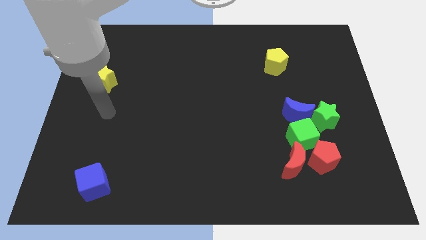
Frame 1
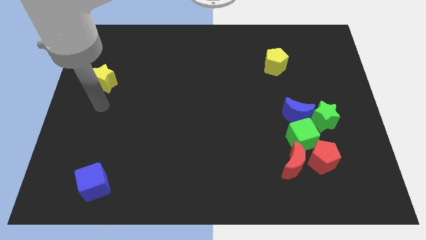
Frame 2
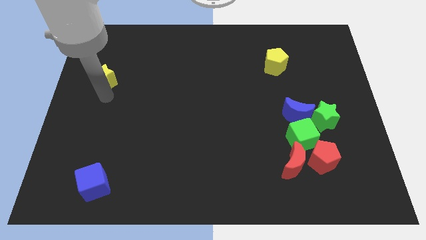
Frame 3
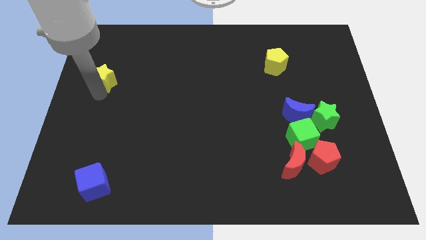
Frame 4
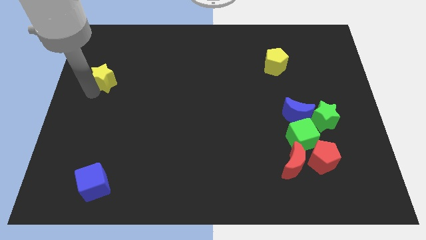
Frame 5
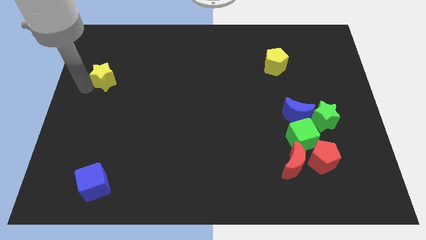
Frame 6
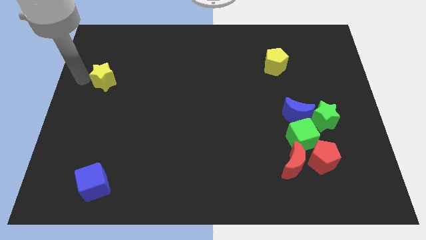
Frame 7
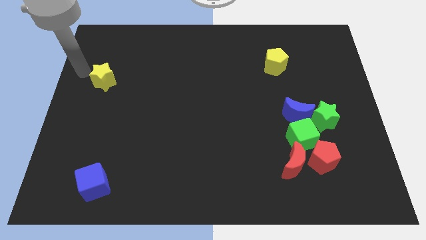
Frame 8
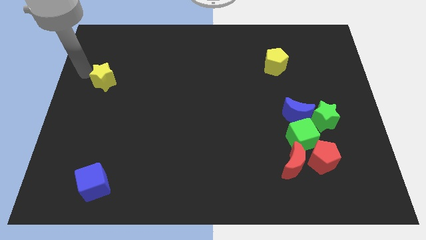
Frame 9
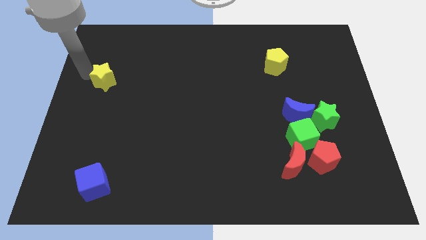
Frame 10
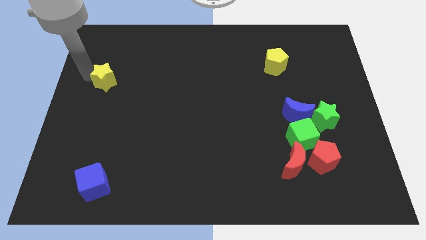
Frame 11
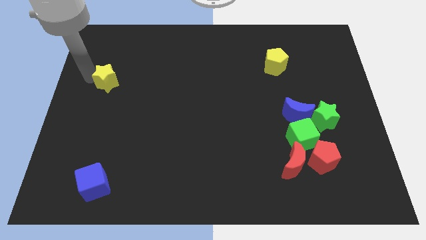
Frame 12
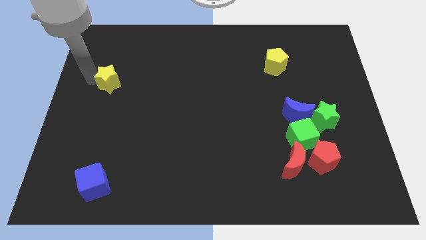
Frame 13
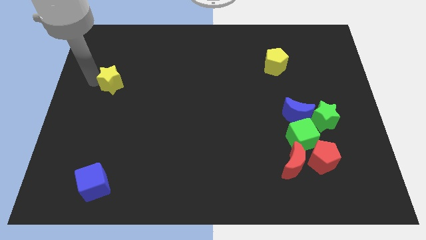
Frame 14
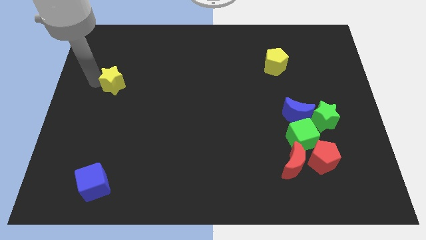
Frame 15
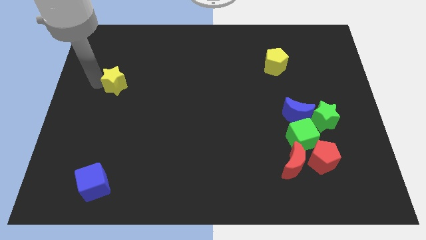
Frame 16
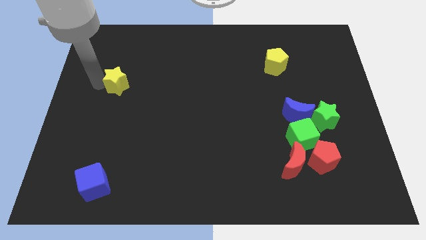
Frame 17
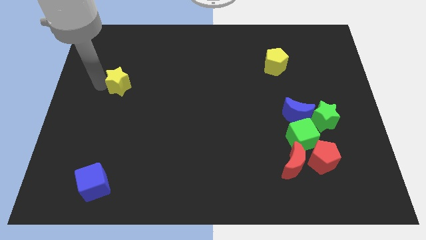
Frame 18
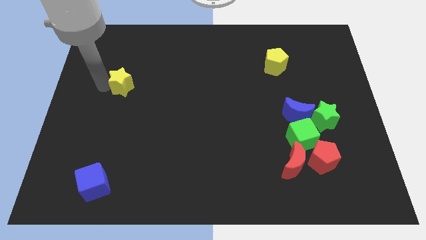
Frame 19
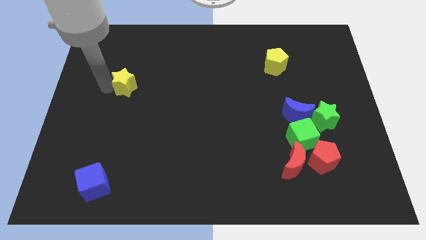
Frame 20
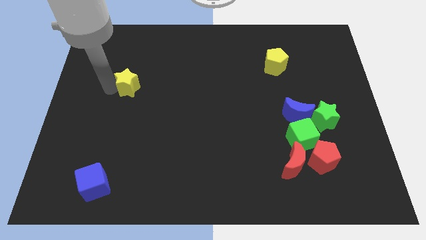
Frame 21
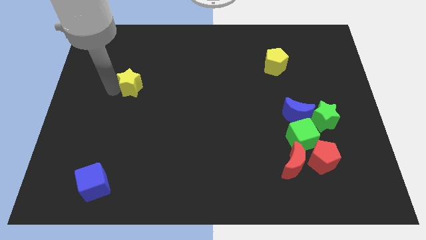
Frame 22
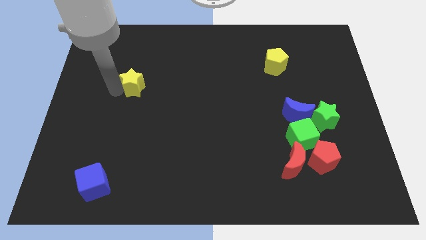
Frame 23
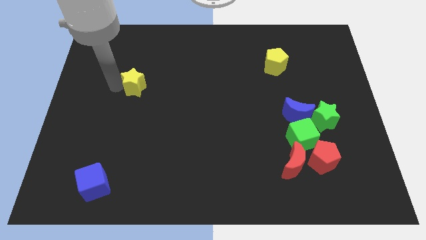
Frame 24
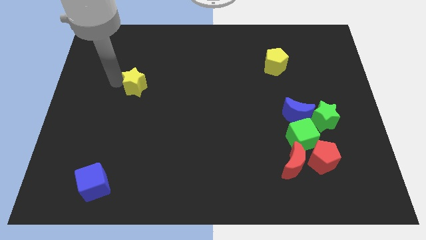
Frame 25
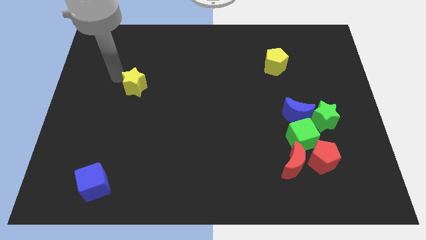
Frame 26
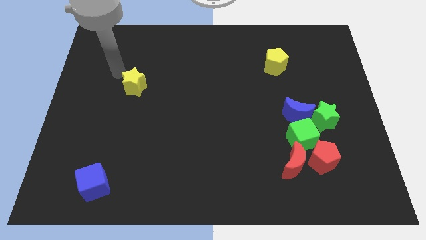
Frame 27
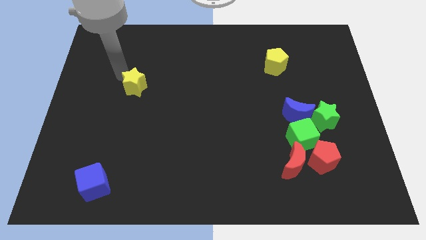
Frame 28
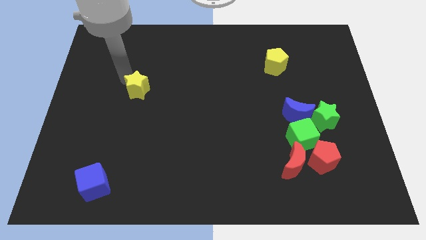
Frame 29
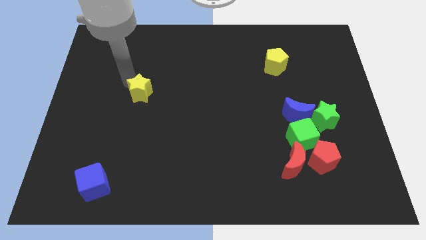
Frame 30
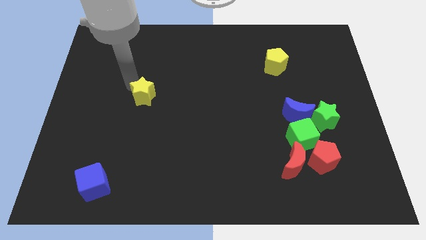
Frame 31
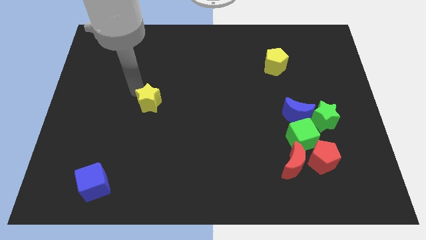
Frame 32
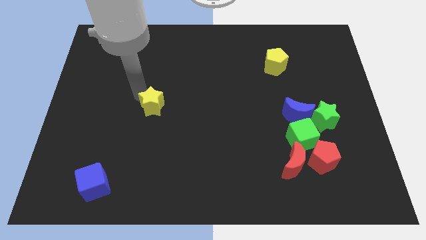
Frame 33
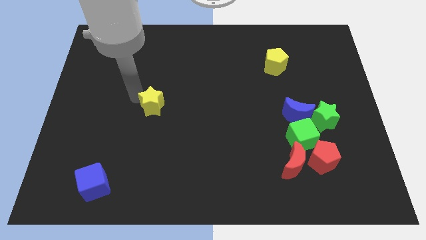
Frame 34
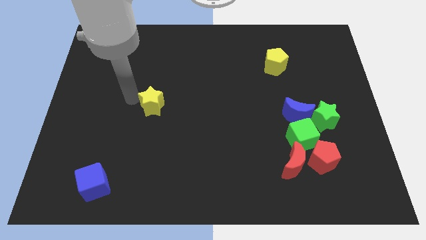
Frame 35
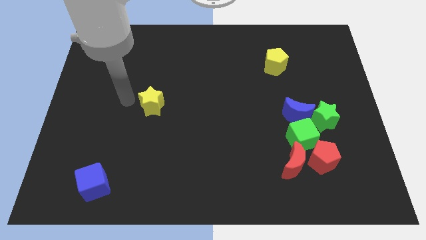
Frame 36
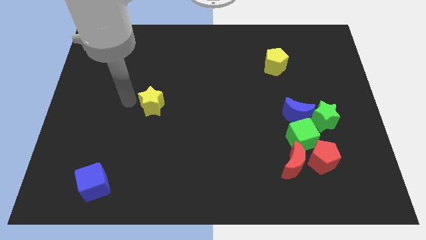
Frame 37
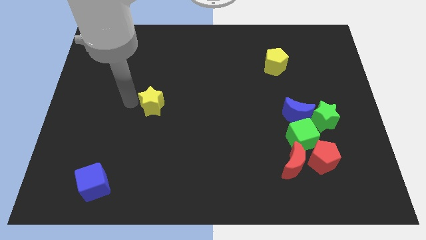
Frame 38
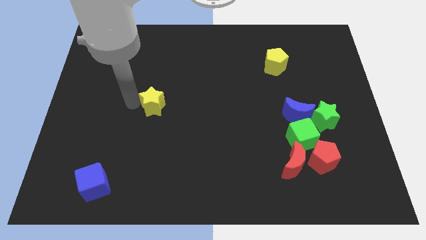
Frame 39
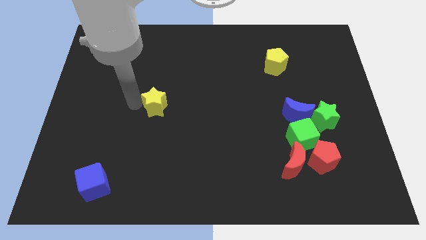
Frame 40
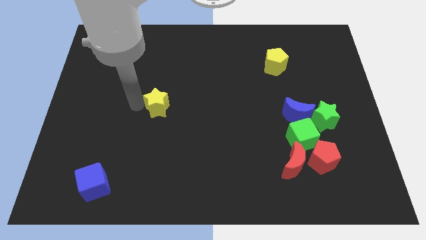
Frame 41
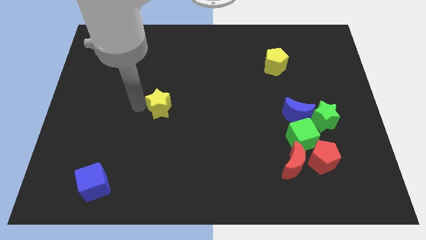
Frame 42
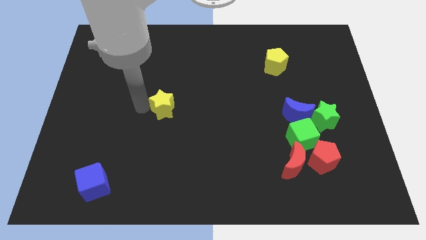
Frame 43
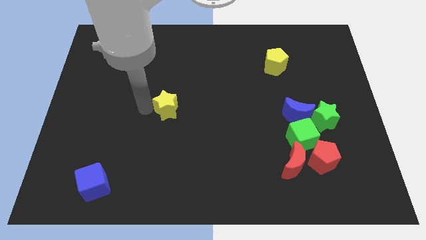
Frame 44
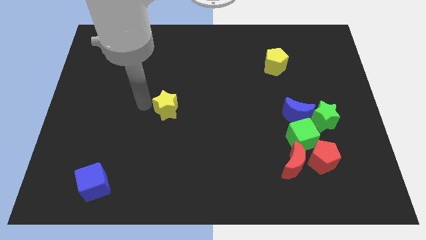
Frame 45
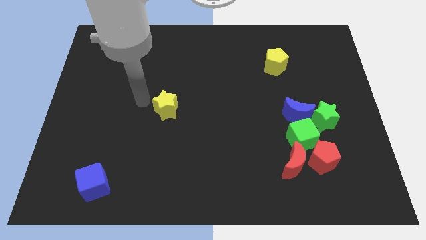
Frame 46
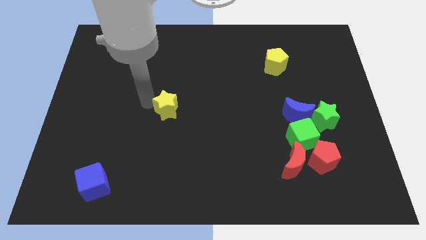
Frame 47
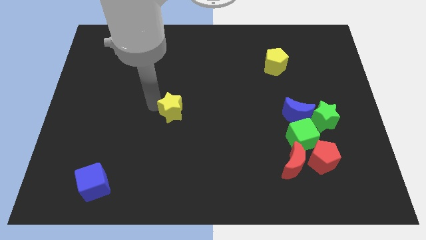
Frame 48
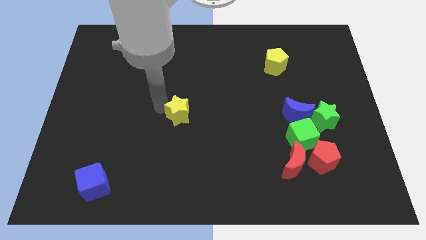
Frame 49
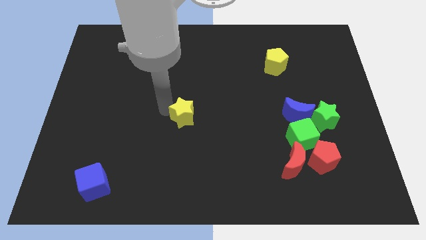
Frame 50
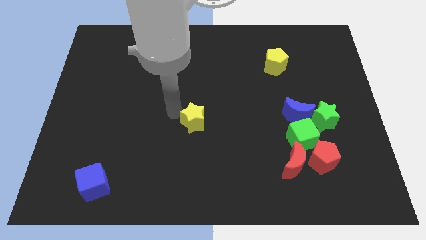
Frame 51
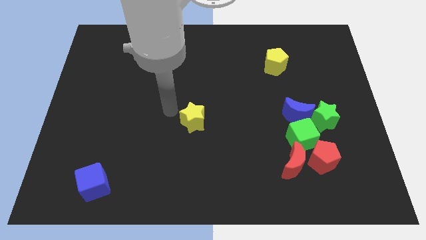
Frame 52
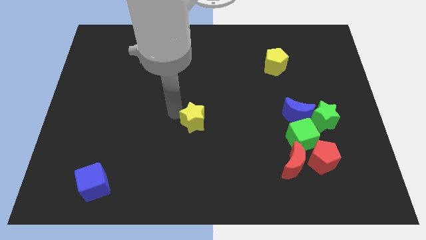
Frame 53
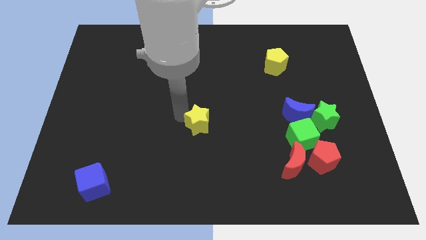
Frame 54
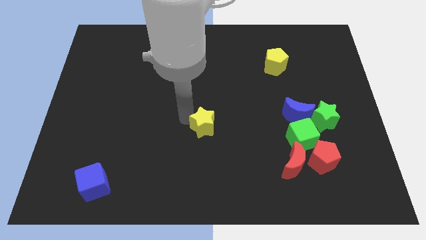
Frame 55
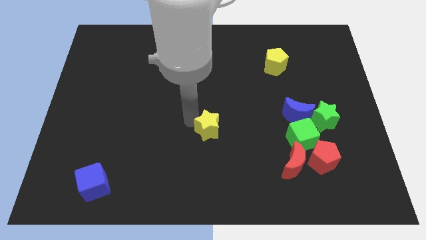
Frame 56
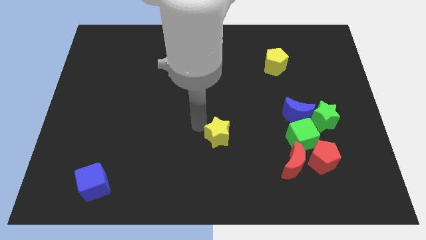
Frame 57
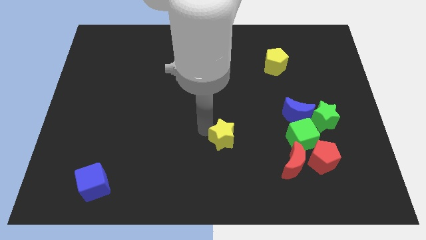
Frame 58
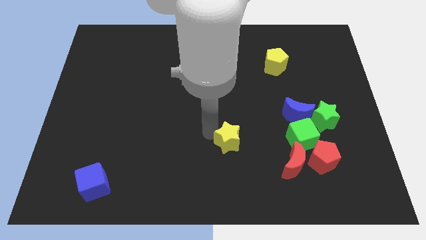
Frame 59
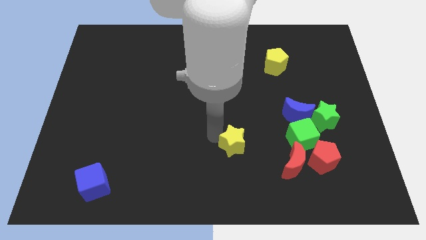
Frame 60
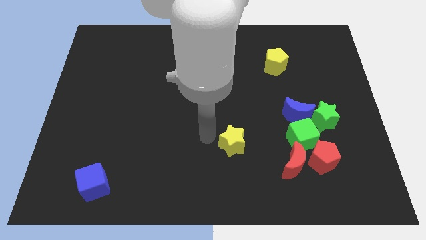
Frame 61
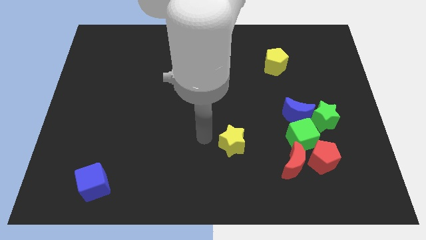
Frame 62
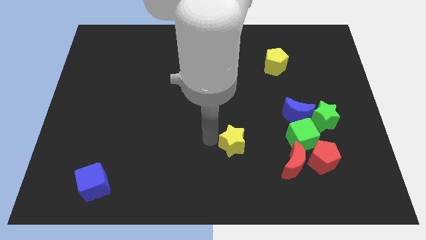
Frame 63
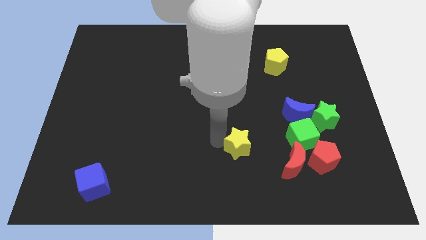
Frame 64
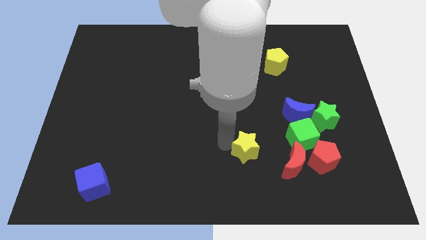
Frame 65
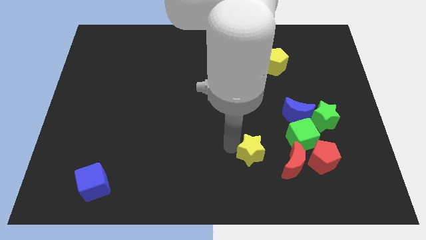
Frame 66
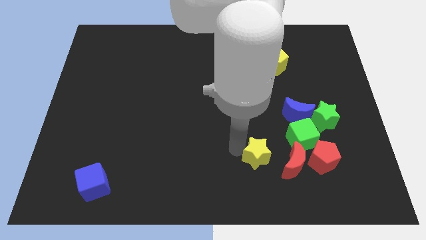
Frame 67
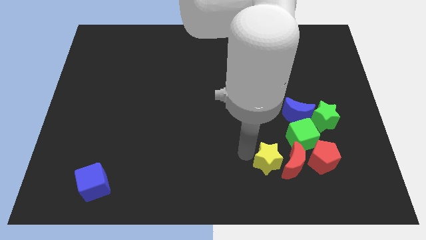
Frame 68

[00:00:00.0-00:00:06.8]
push the yellow star to the red moon

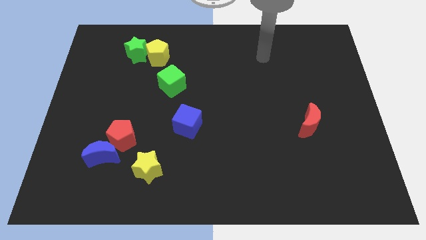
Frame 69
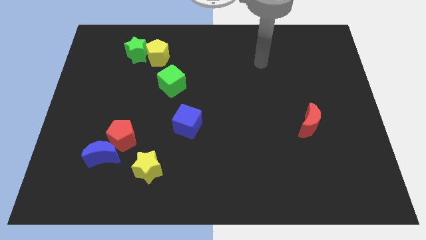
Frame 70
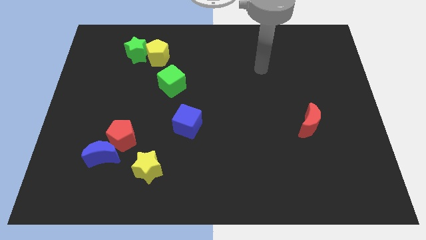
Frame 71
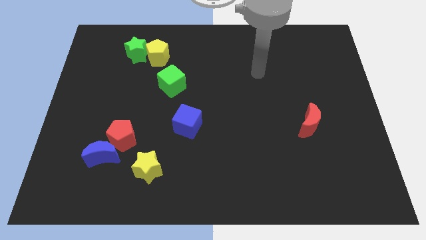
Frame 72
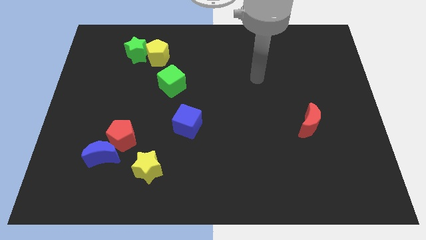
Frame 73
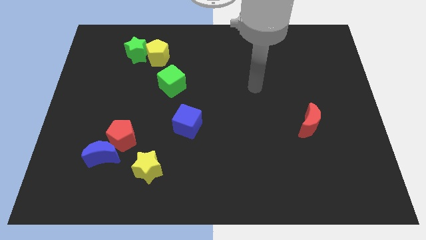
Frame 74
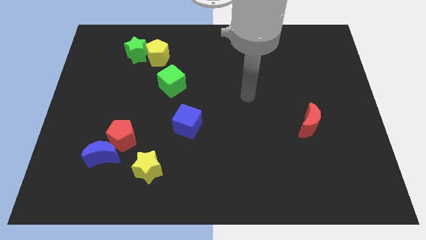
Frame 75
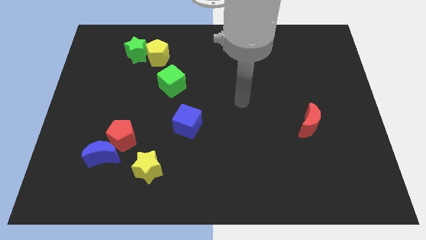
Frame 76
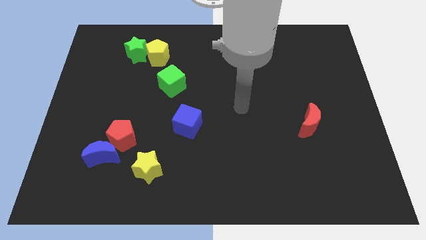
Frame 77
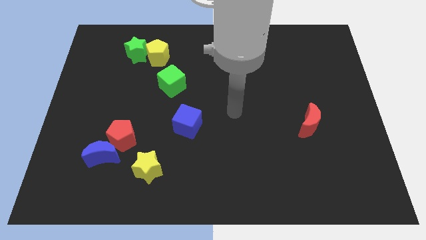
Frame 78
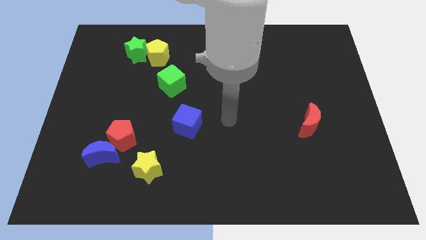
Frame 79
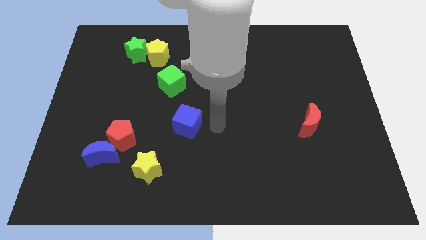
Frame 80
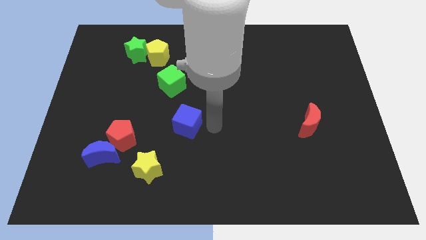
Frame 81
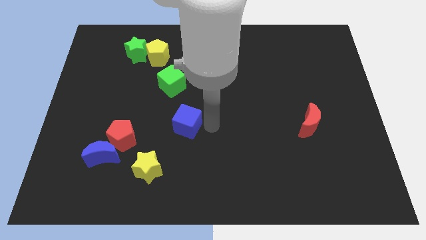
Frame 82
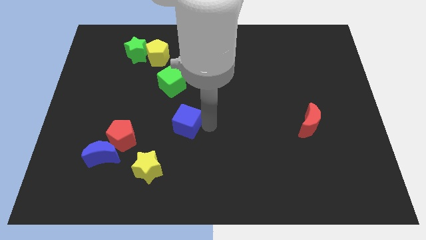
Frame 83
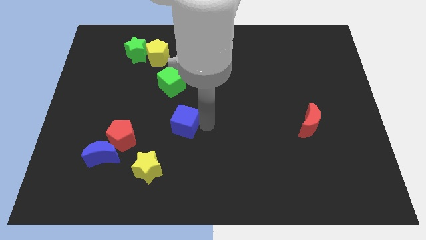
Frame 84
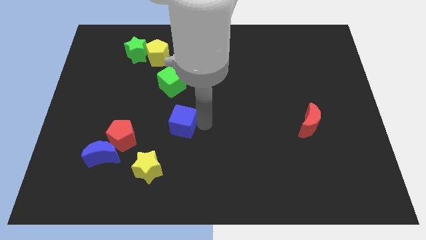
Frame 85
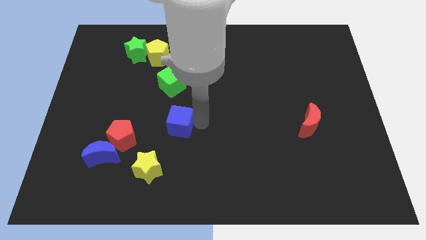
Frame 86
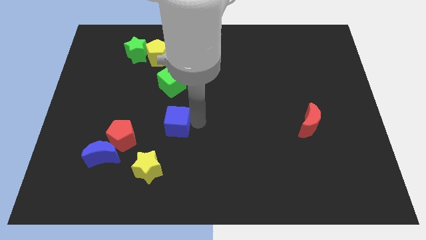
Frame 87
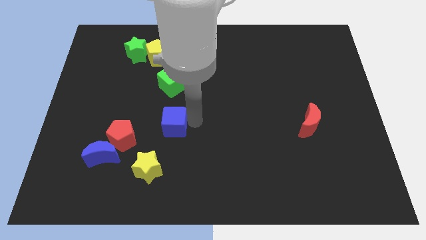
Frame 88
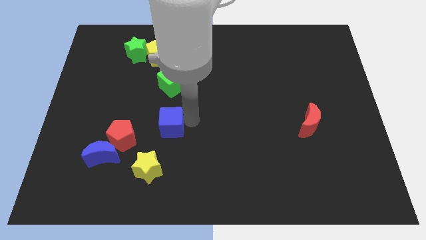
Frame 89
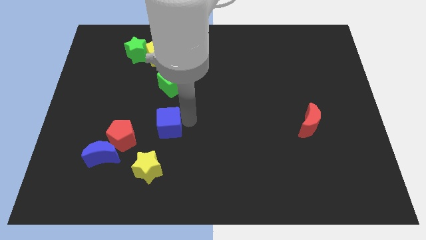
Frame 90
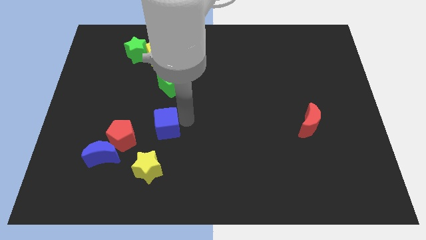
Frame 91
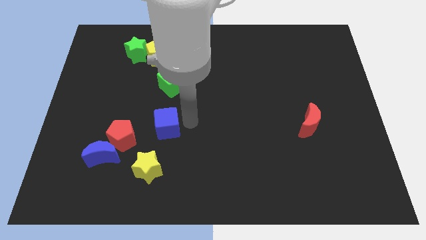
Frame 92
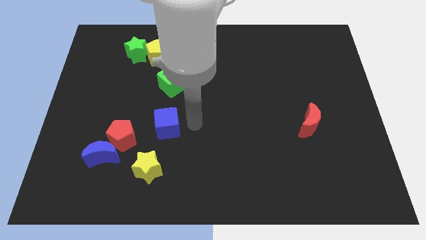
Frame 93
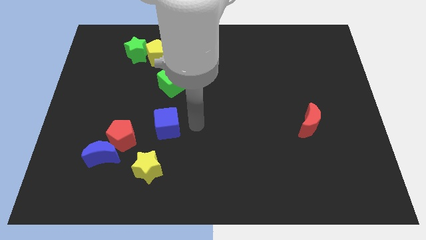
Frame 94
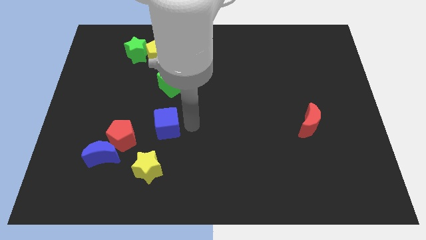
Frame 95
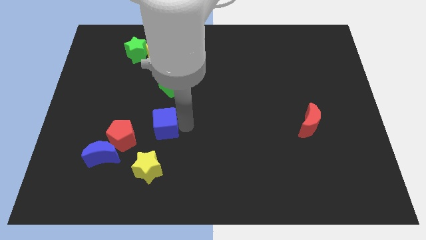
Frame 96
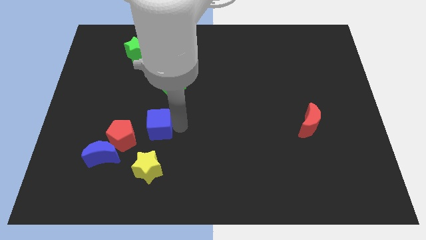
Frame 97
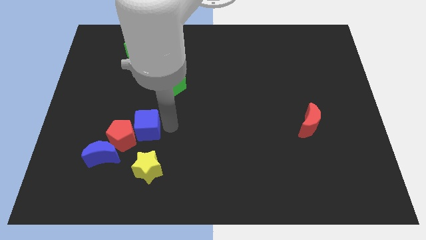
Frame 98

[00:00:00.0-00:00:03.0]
push the blue cube to the red pentagon
